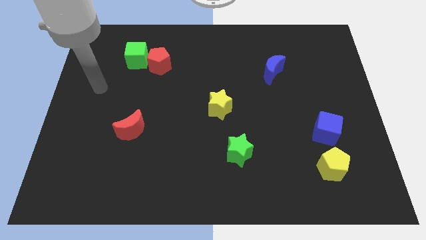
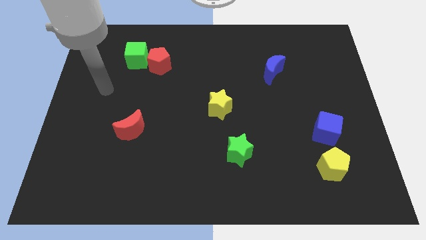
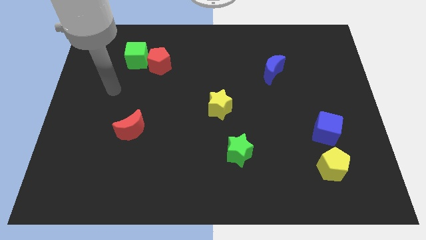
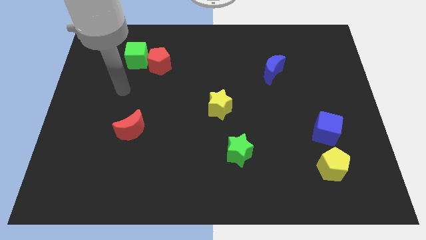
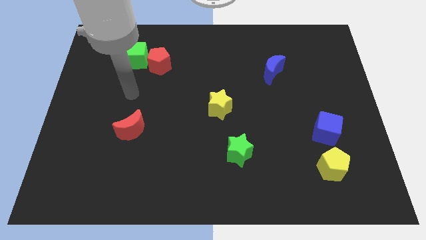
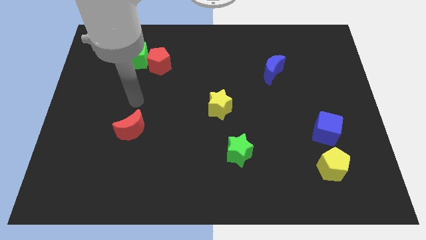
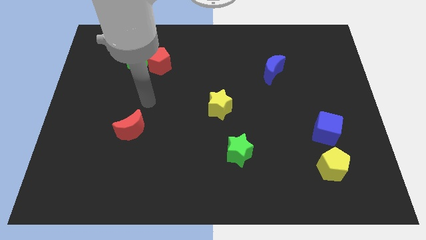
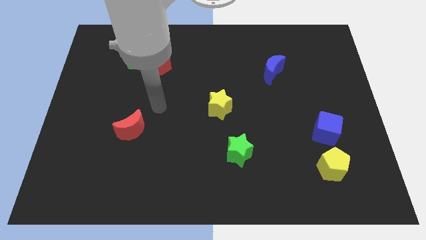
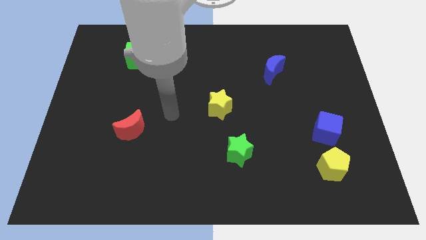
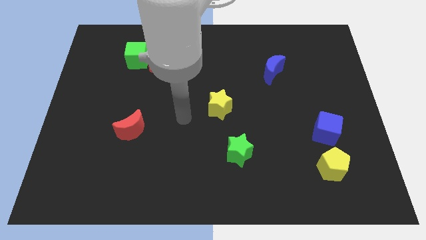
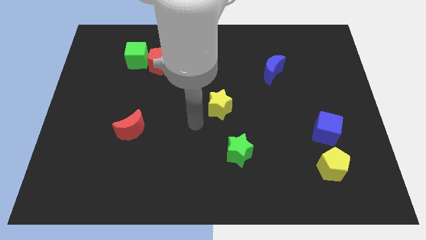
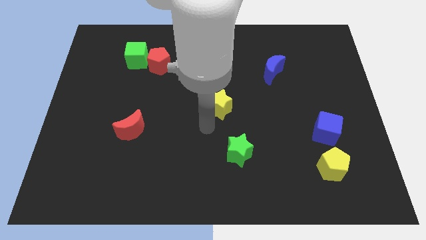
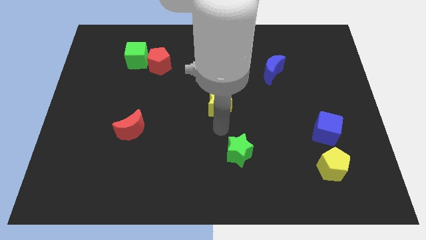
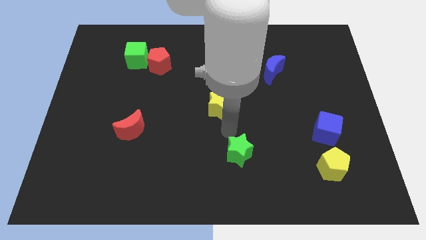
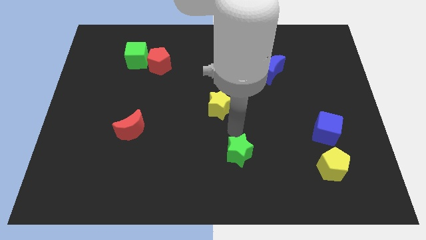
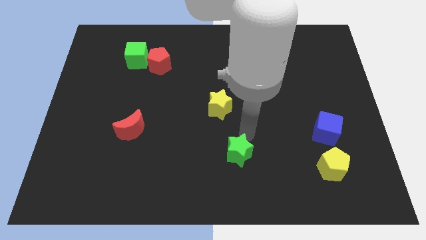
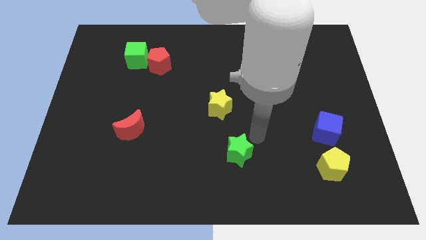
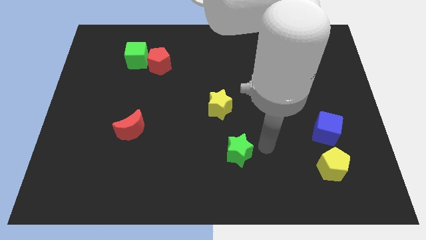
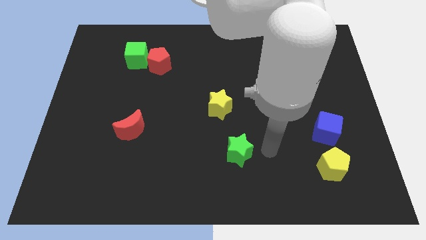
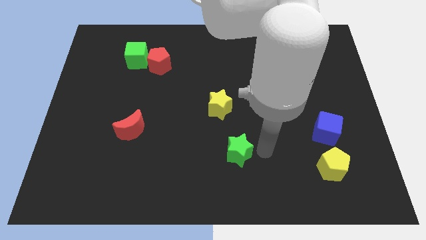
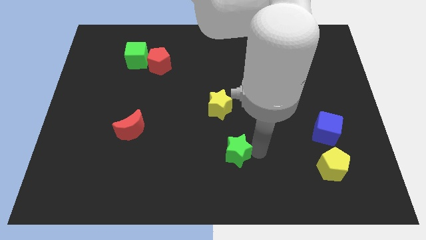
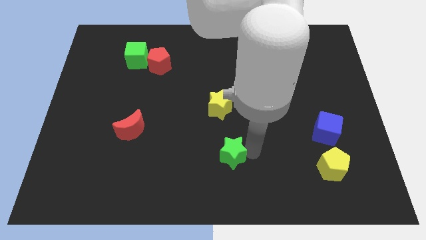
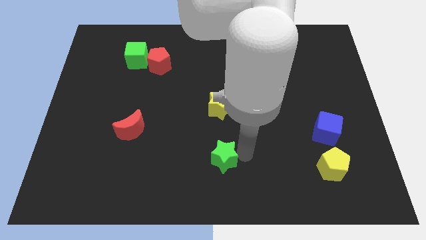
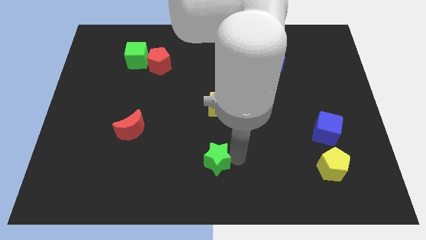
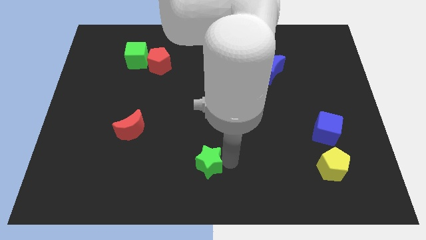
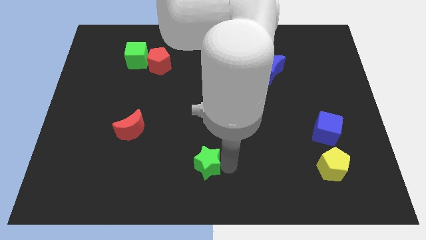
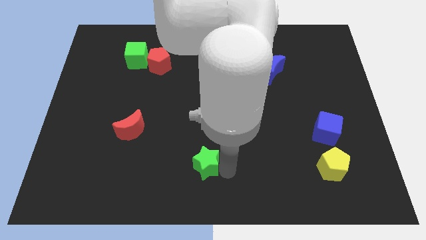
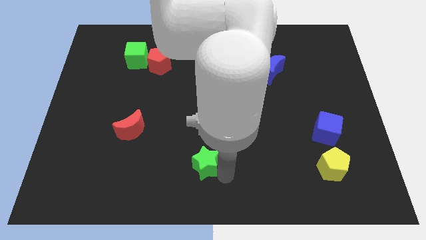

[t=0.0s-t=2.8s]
push the green star to the left somewhat

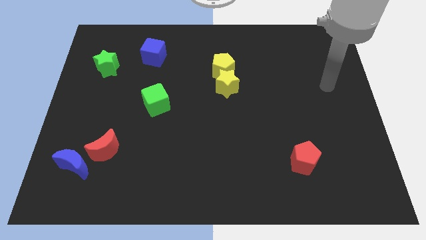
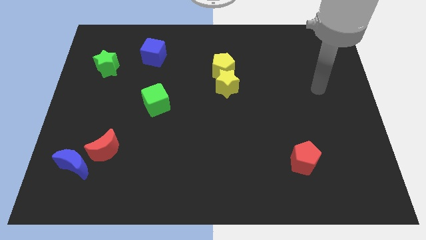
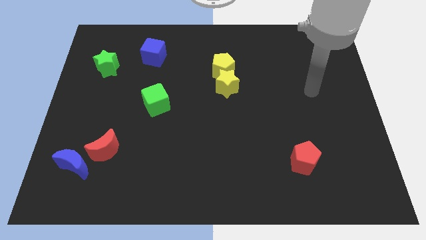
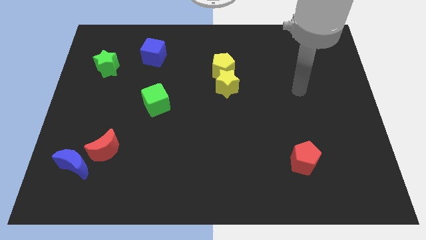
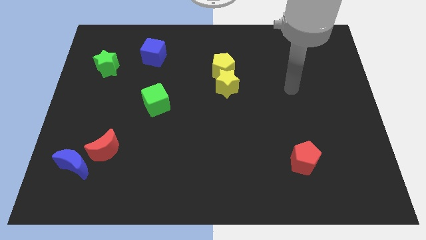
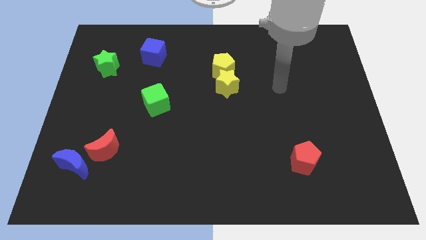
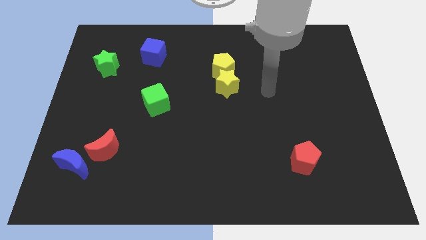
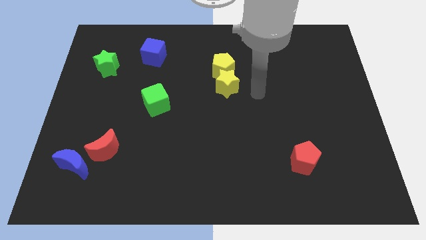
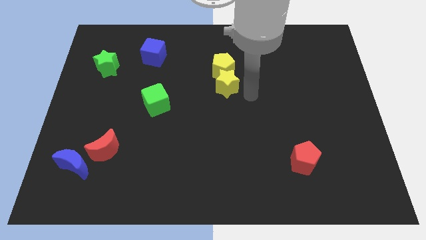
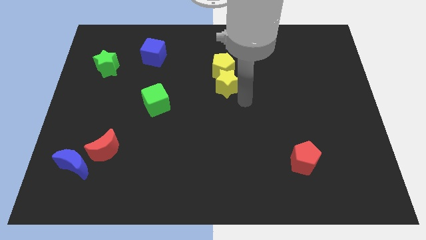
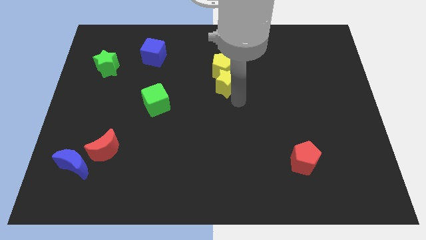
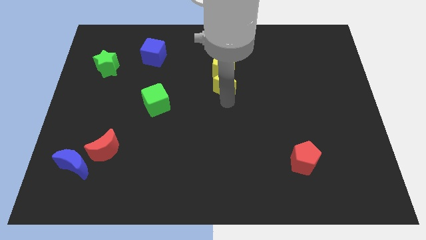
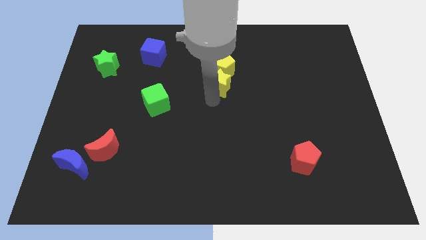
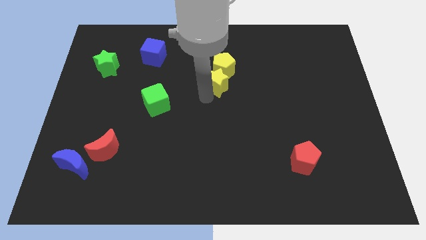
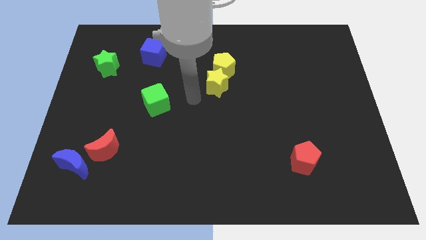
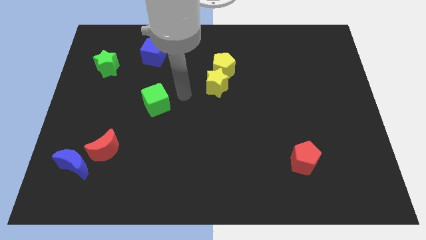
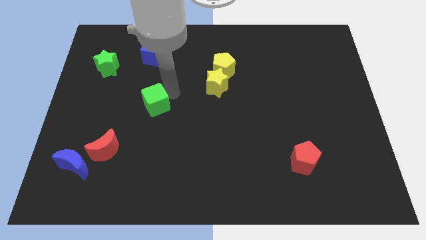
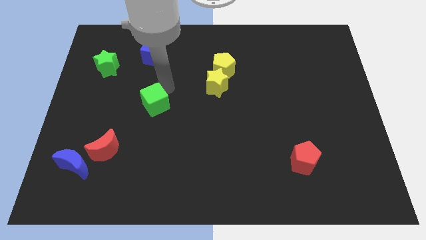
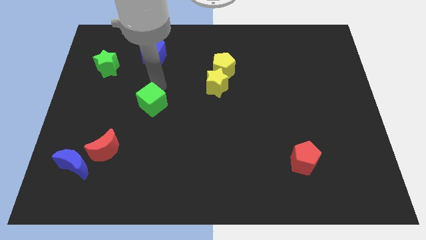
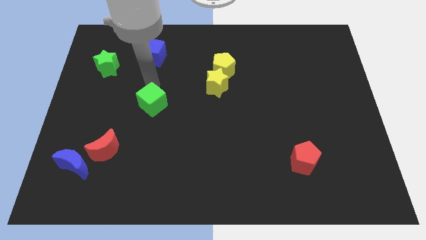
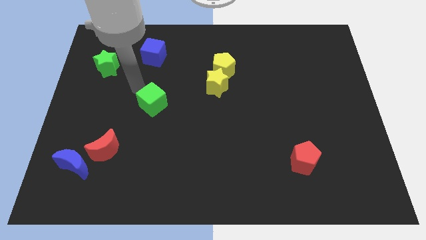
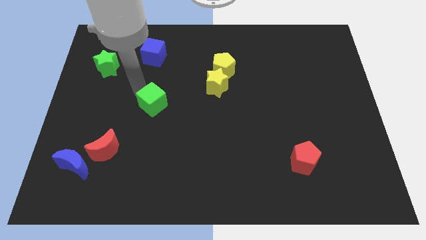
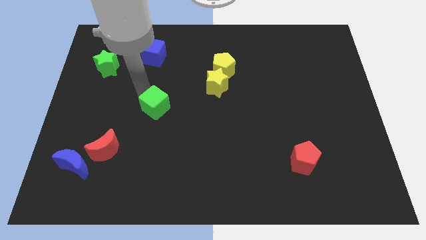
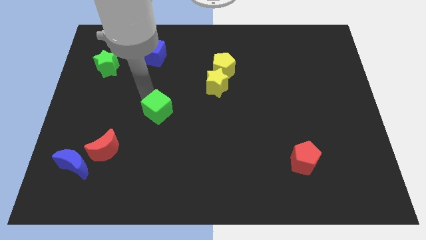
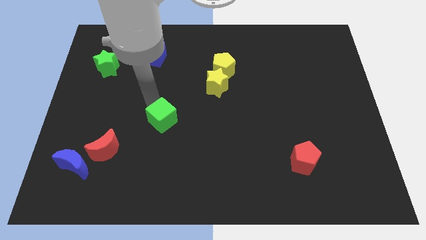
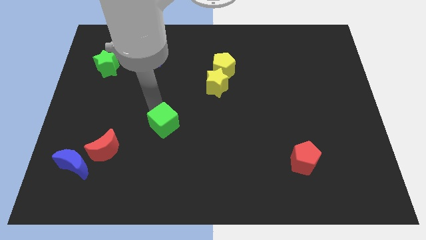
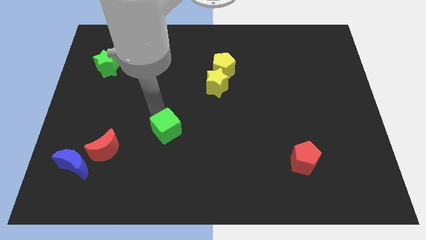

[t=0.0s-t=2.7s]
slightly slide the green cube down and then right

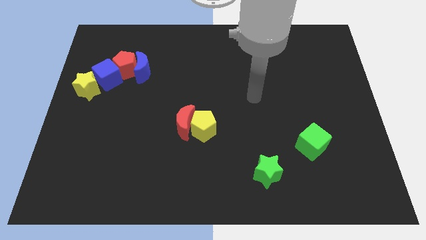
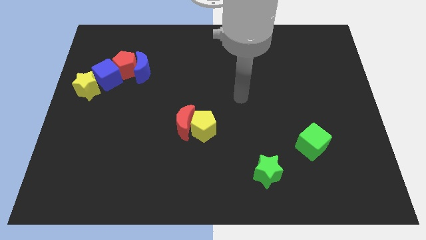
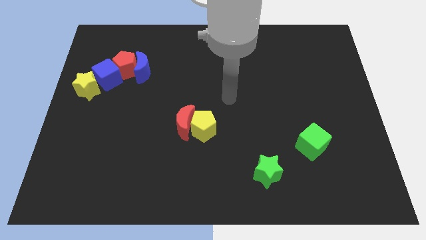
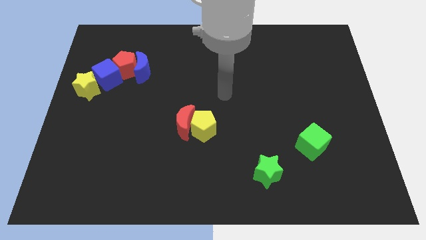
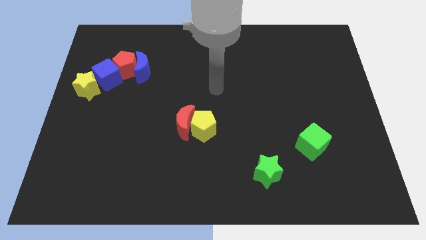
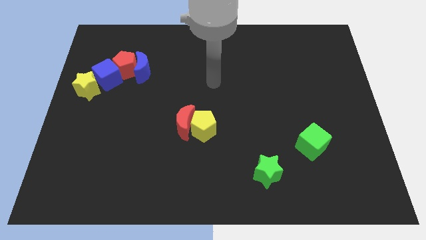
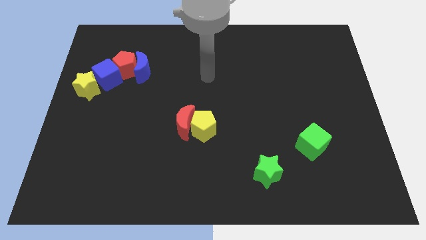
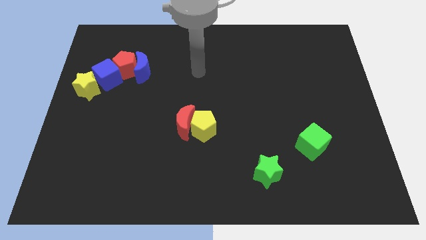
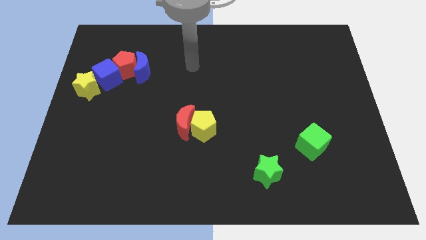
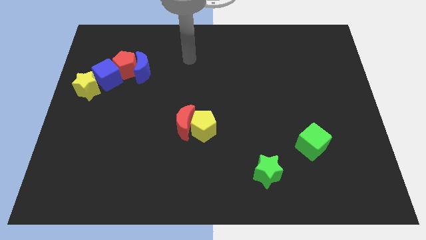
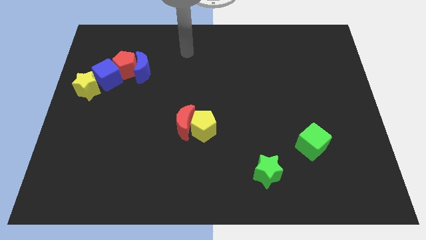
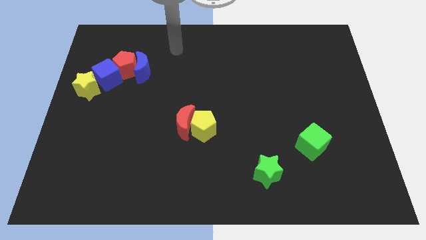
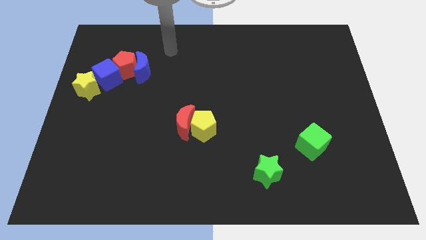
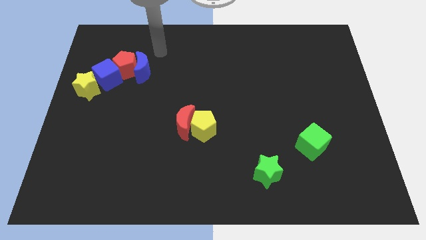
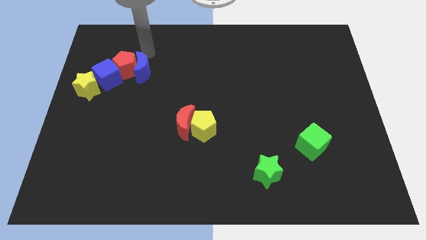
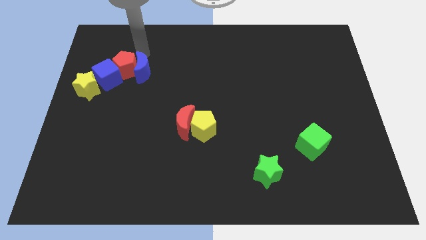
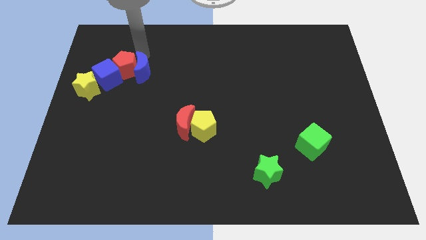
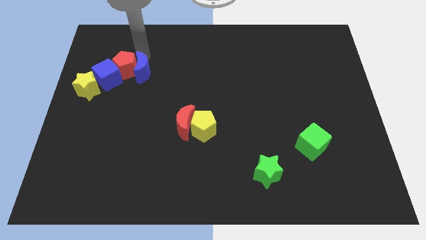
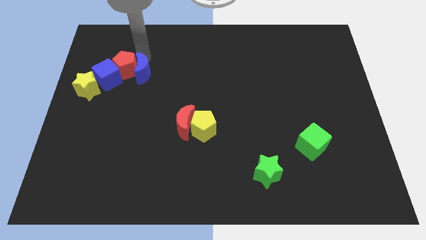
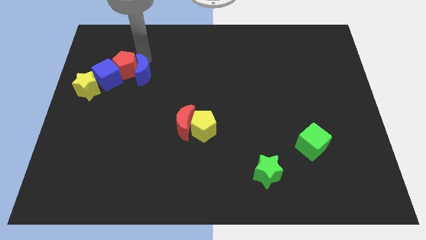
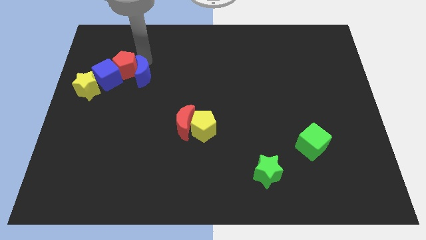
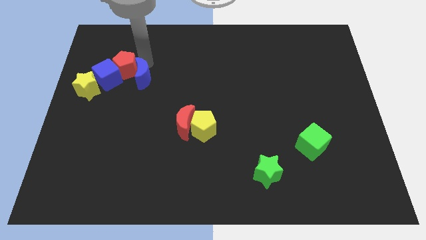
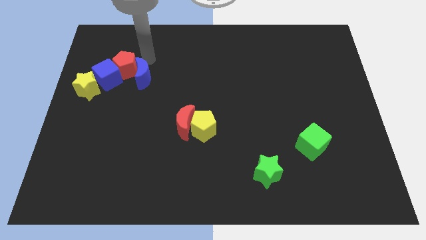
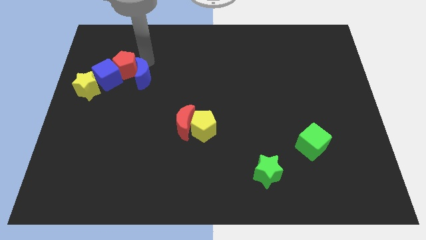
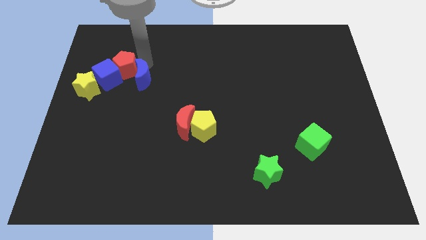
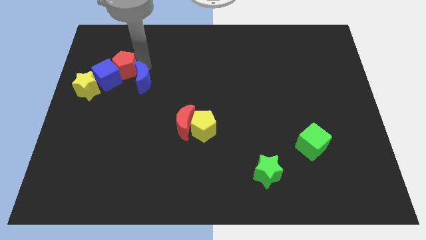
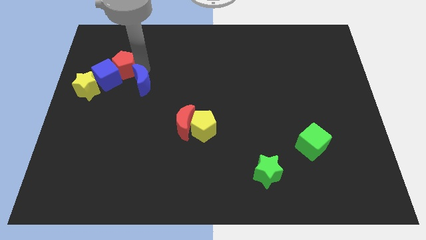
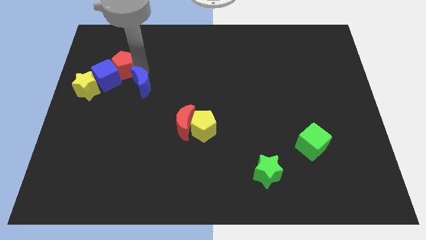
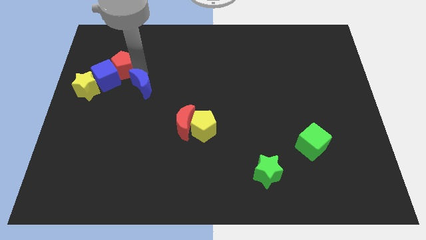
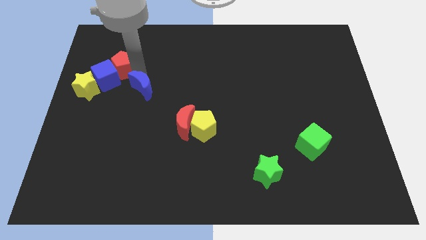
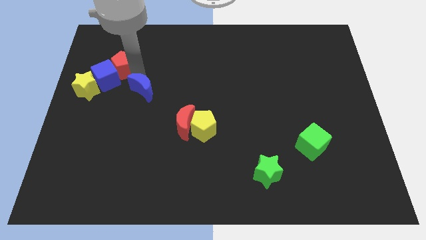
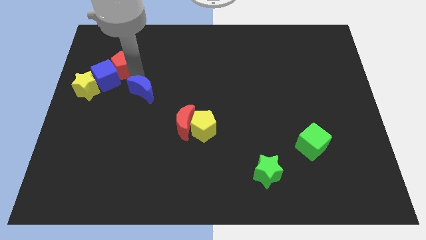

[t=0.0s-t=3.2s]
push the blue moon down somewhat
